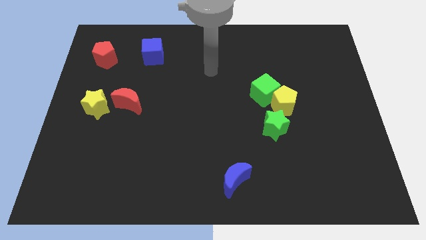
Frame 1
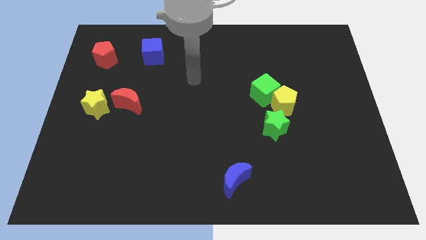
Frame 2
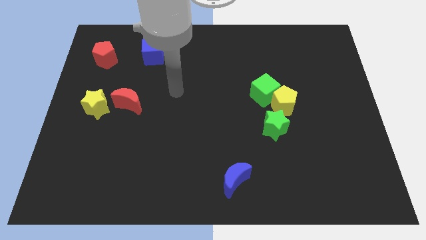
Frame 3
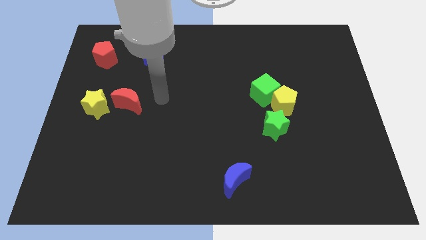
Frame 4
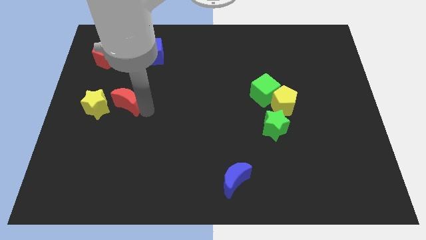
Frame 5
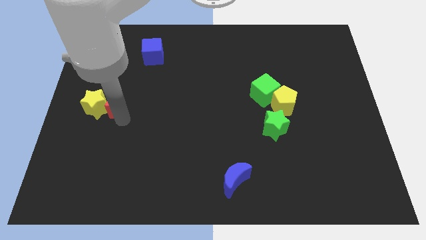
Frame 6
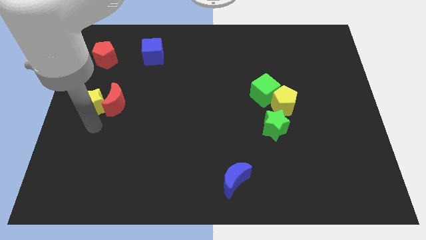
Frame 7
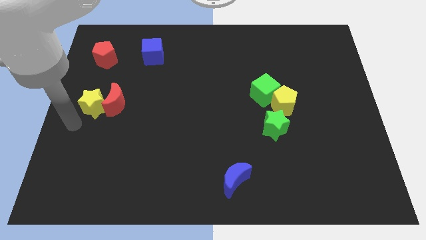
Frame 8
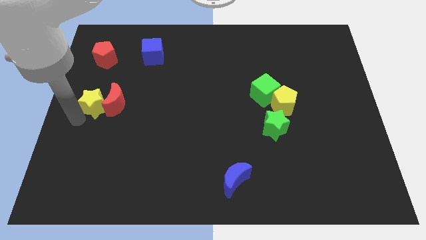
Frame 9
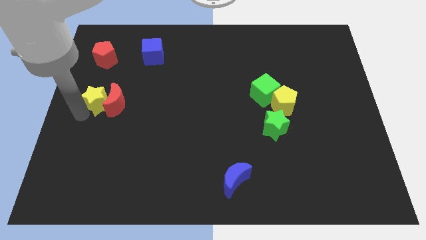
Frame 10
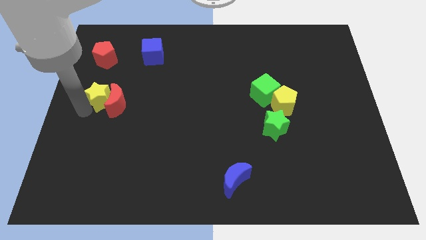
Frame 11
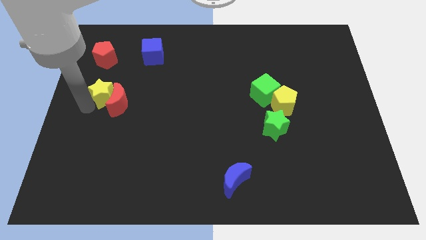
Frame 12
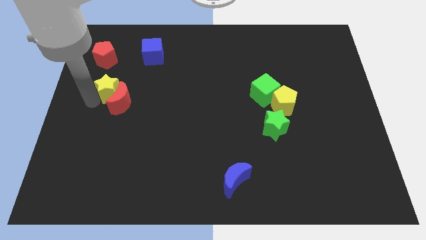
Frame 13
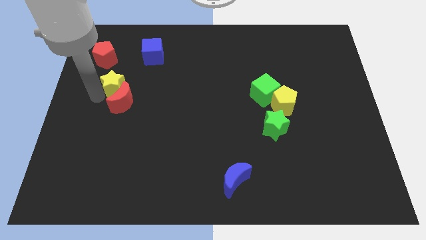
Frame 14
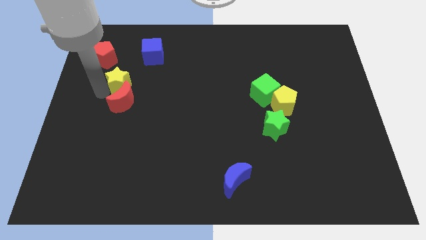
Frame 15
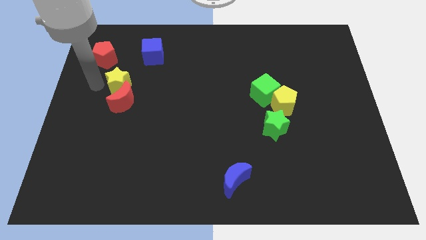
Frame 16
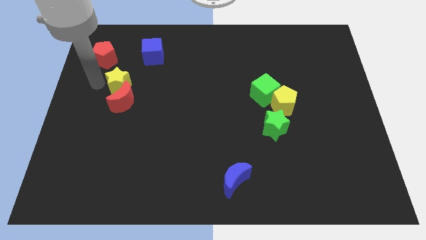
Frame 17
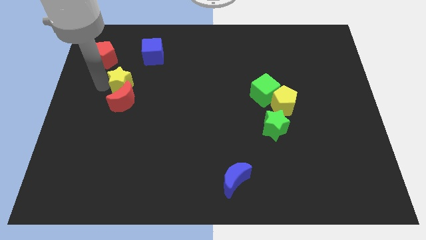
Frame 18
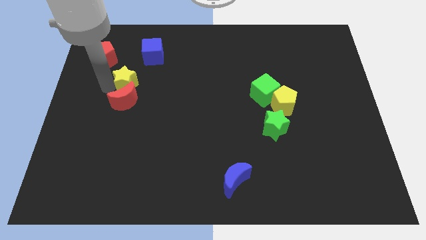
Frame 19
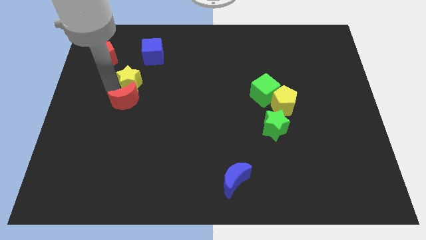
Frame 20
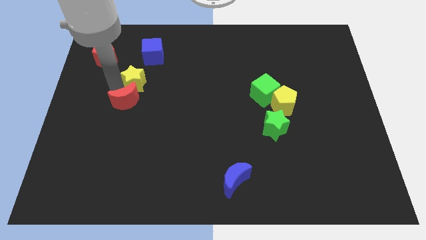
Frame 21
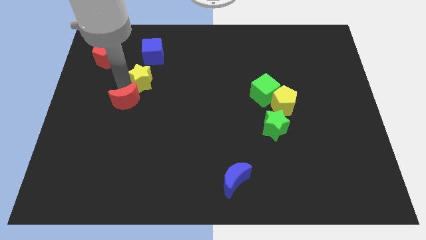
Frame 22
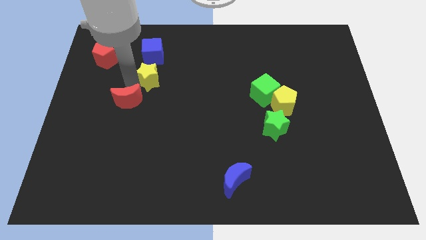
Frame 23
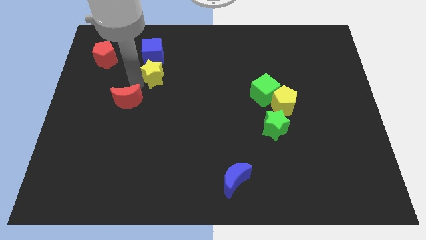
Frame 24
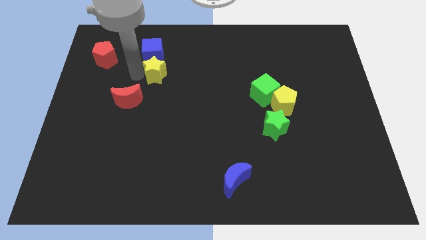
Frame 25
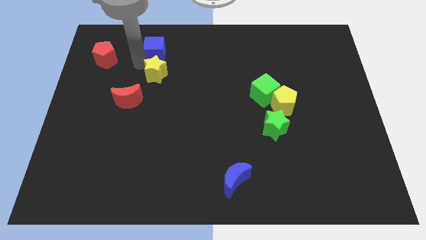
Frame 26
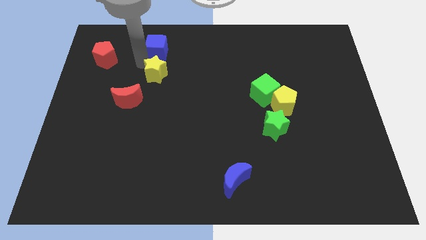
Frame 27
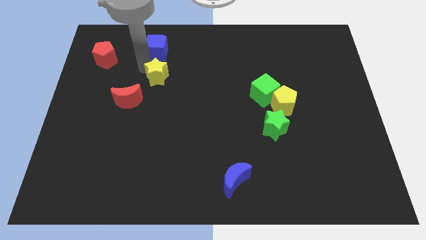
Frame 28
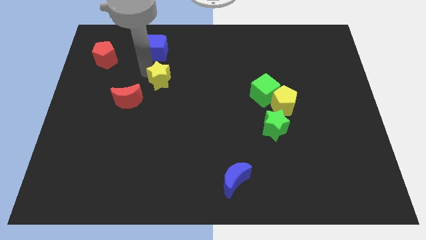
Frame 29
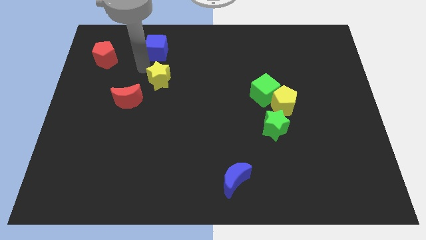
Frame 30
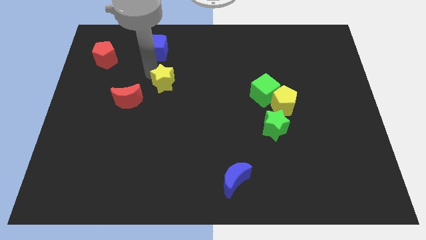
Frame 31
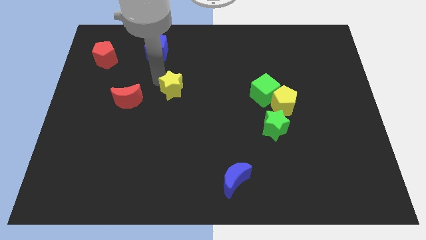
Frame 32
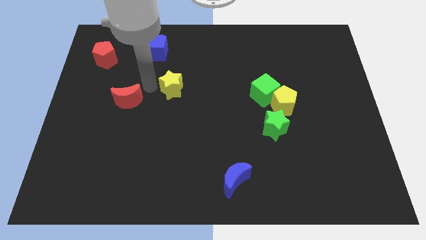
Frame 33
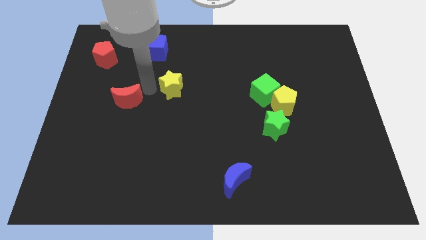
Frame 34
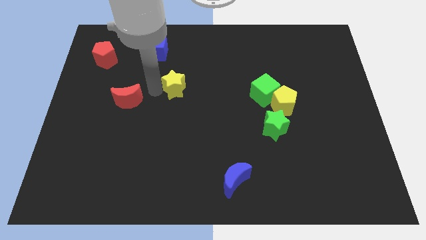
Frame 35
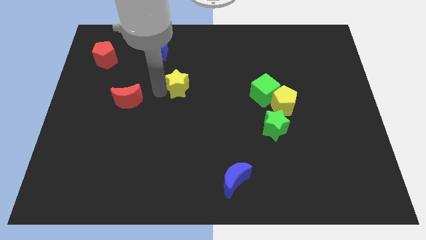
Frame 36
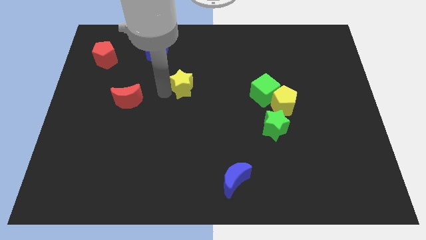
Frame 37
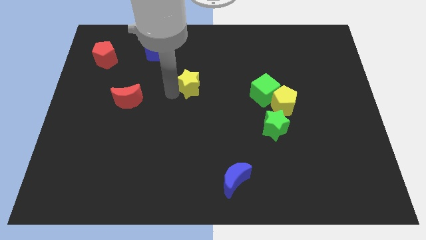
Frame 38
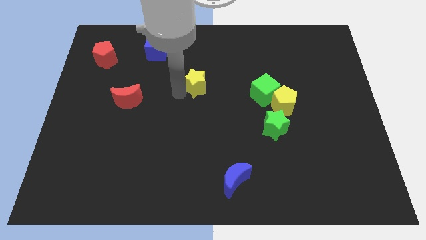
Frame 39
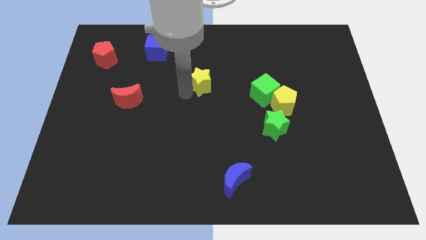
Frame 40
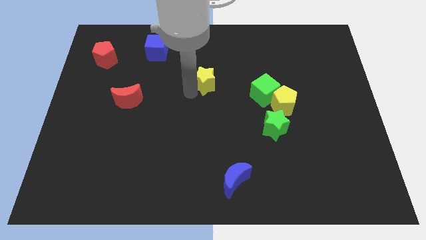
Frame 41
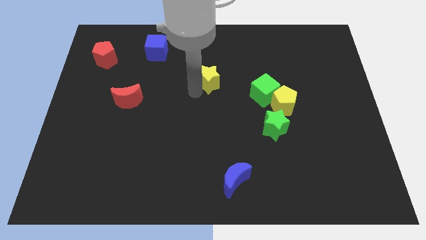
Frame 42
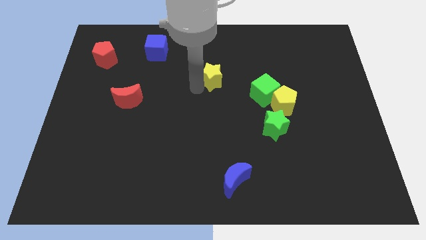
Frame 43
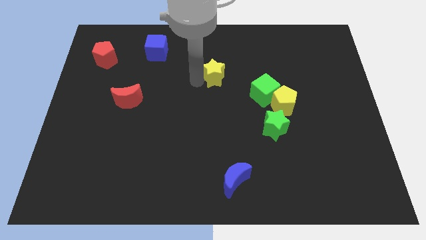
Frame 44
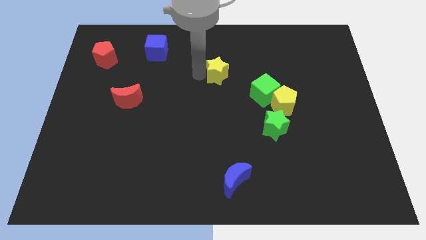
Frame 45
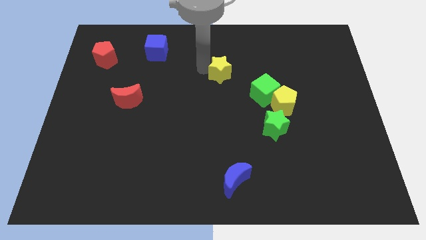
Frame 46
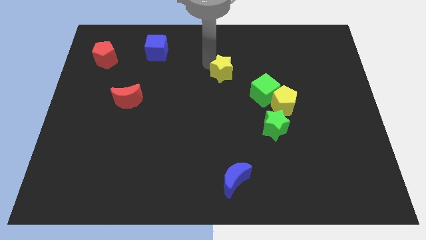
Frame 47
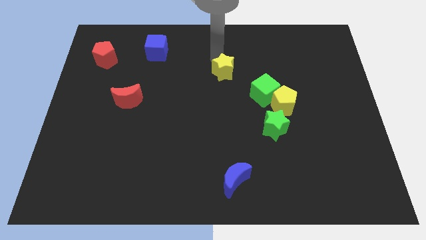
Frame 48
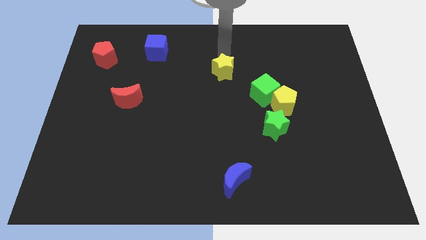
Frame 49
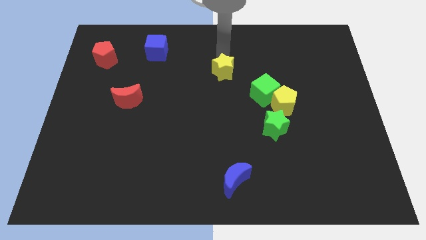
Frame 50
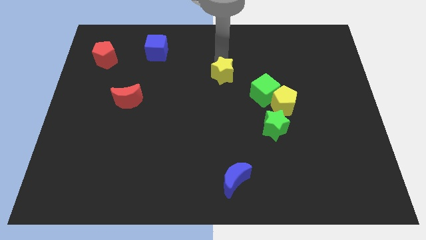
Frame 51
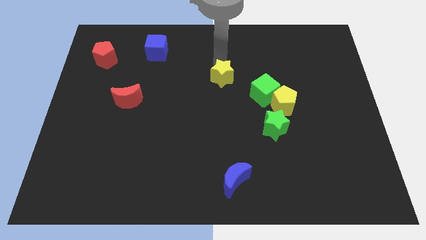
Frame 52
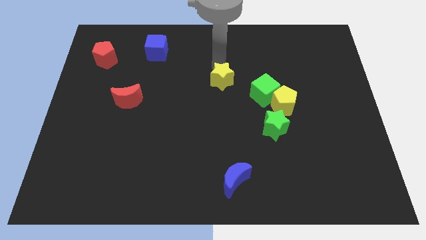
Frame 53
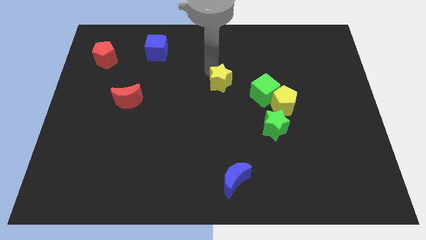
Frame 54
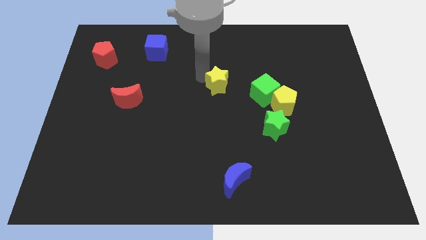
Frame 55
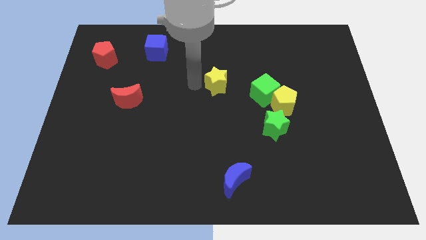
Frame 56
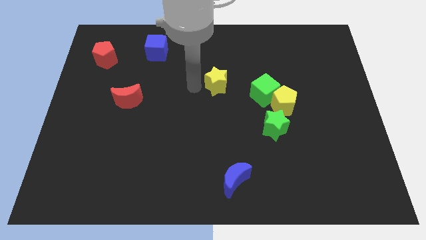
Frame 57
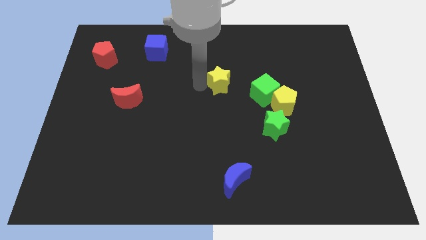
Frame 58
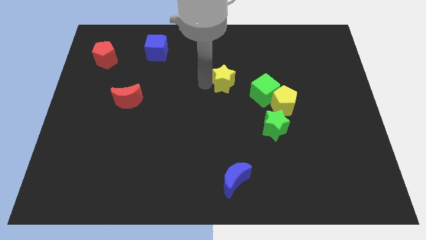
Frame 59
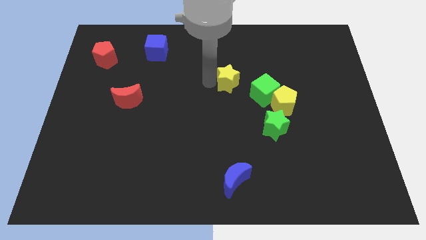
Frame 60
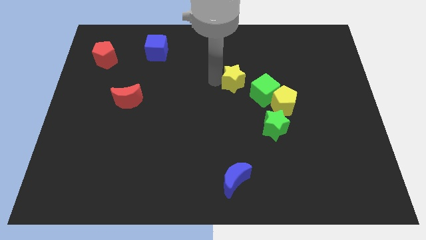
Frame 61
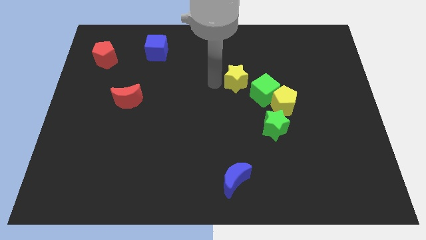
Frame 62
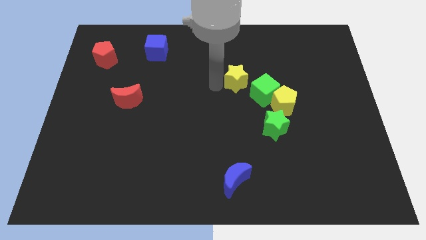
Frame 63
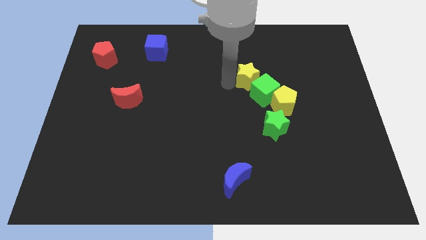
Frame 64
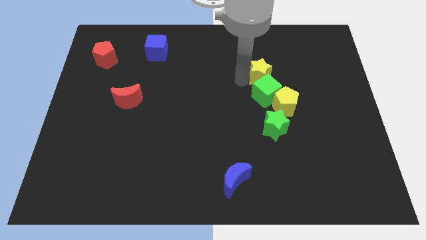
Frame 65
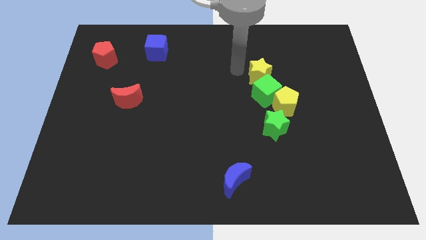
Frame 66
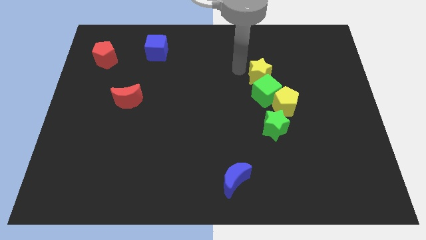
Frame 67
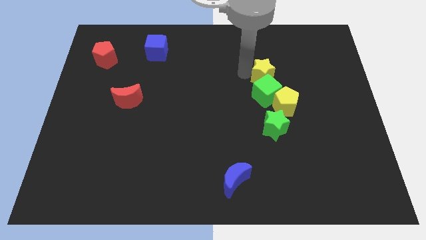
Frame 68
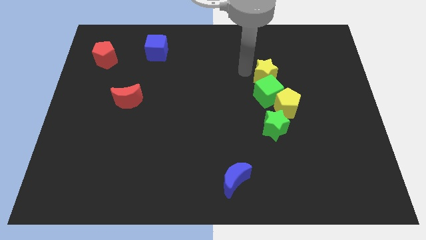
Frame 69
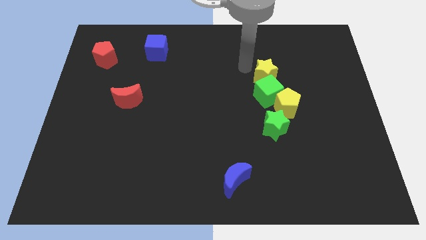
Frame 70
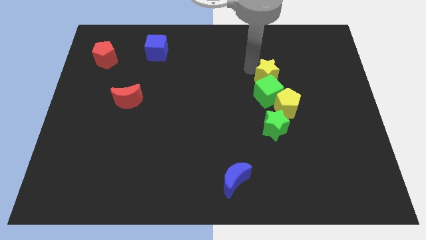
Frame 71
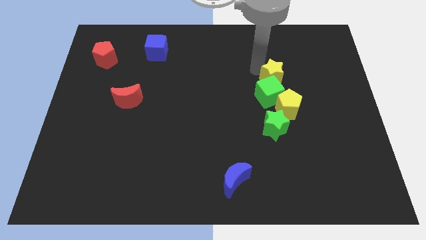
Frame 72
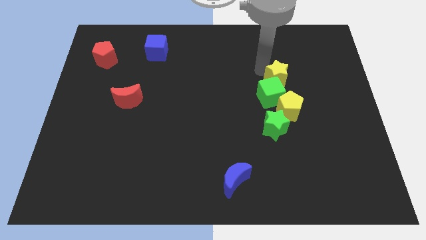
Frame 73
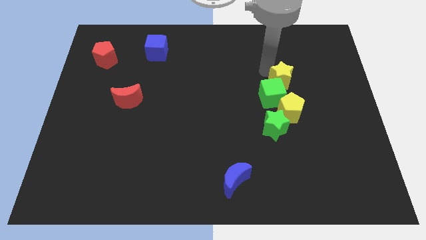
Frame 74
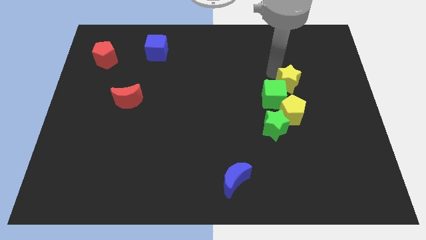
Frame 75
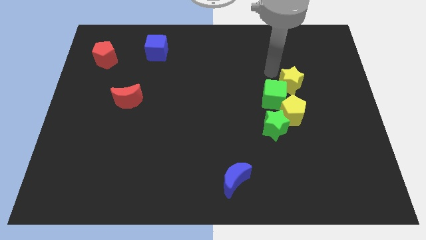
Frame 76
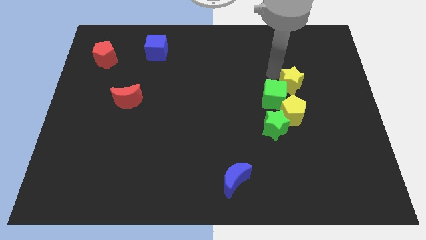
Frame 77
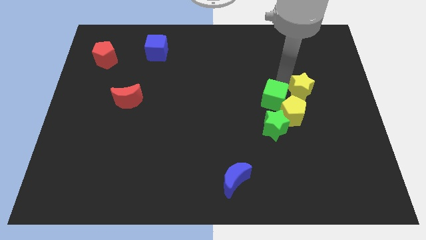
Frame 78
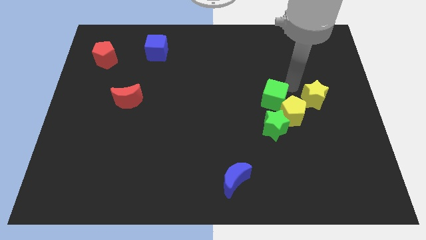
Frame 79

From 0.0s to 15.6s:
move the yellow star to the right of the yellow pentagon
